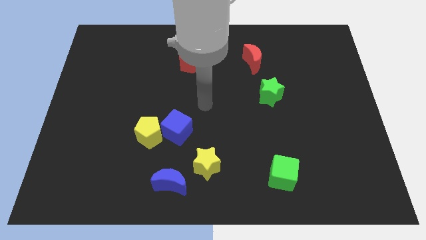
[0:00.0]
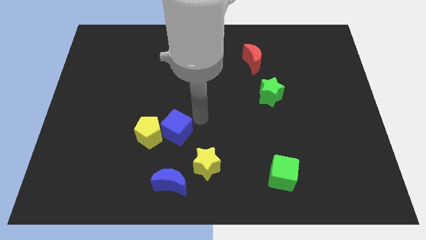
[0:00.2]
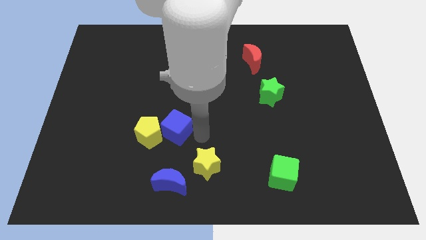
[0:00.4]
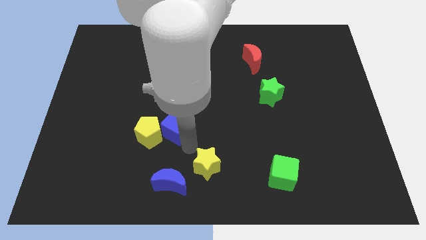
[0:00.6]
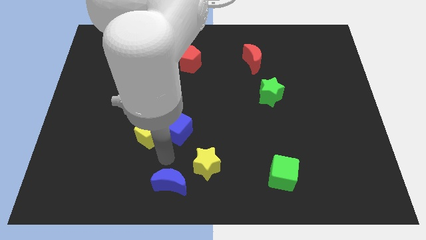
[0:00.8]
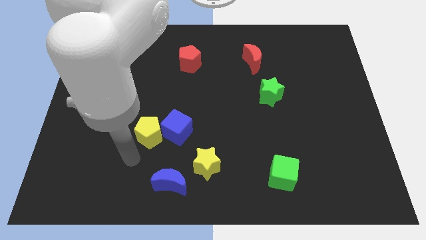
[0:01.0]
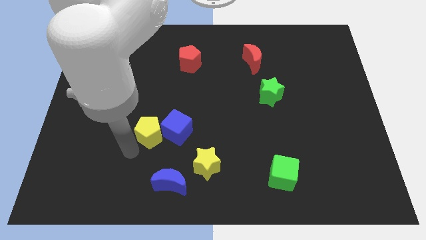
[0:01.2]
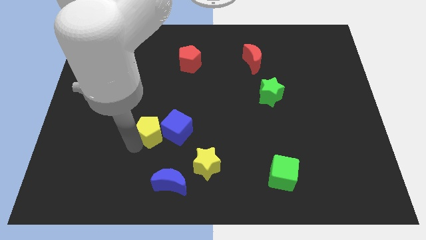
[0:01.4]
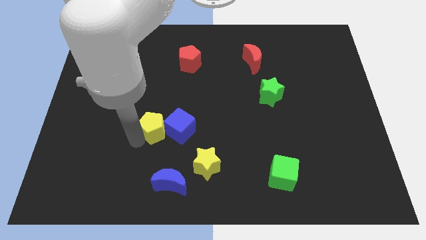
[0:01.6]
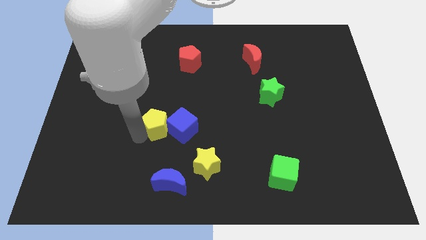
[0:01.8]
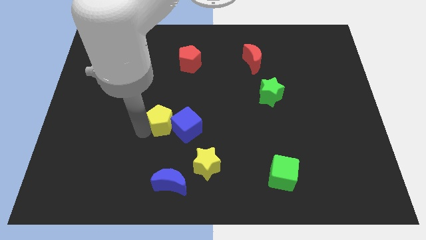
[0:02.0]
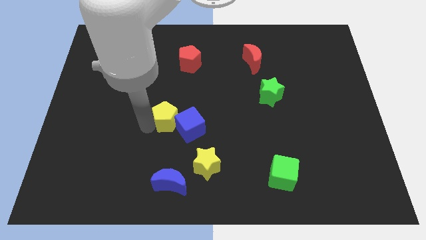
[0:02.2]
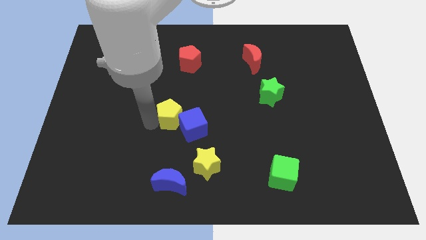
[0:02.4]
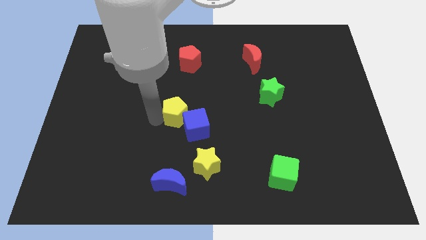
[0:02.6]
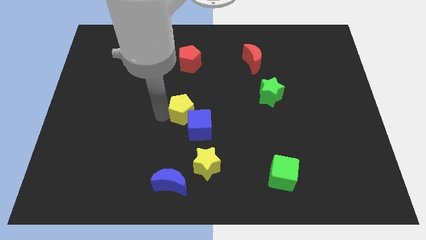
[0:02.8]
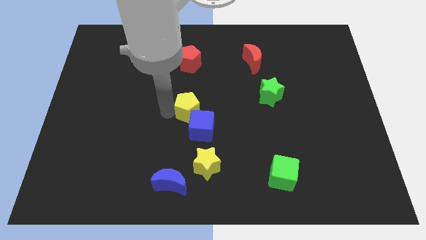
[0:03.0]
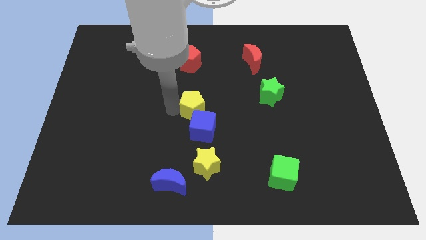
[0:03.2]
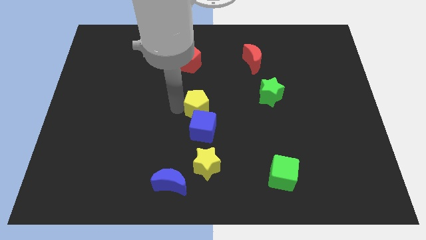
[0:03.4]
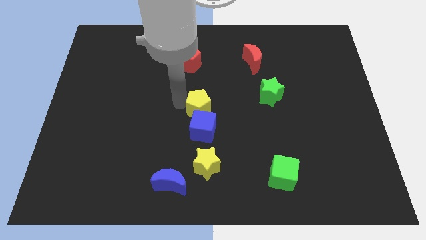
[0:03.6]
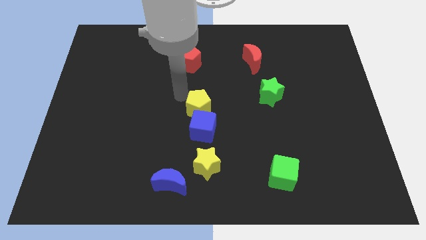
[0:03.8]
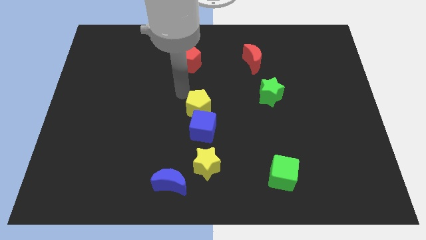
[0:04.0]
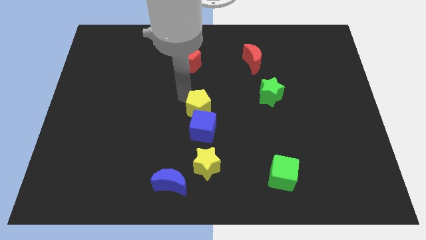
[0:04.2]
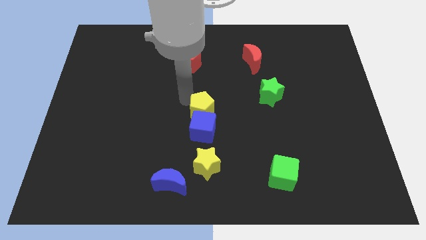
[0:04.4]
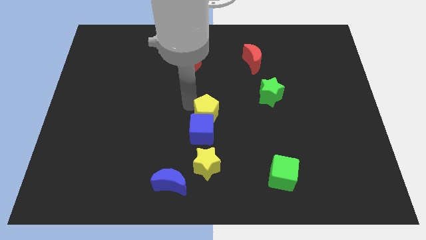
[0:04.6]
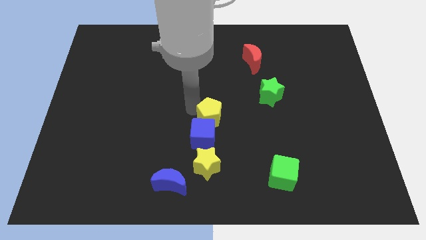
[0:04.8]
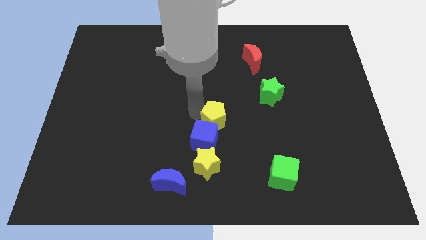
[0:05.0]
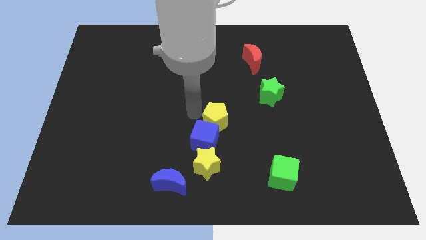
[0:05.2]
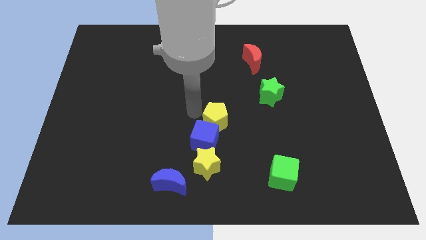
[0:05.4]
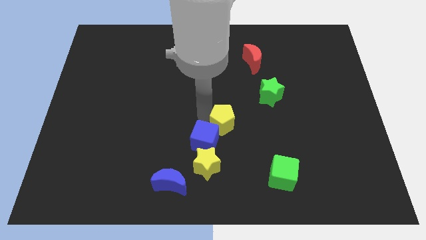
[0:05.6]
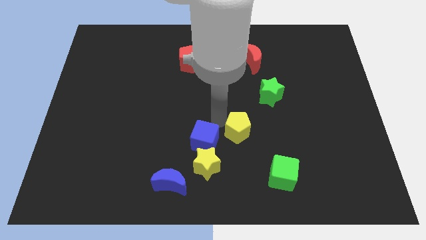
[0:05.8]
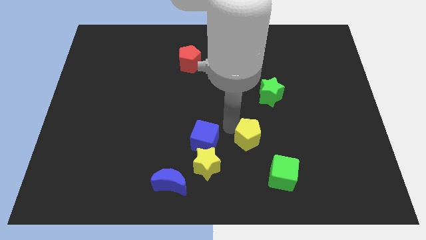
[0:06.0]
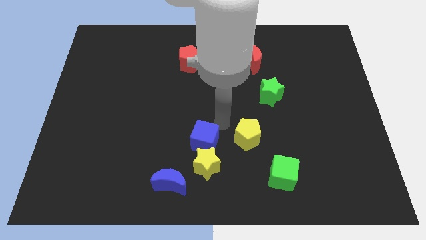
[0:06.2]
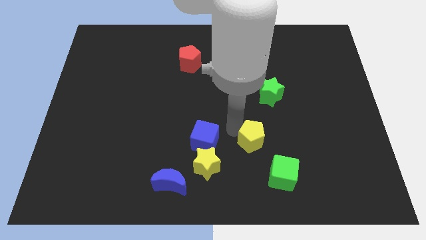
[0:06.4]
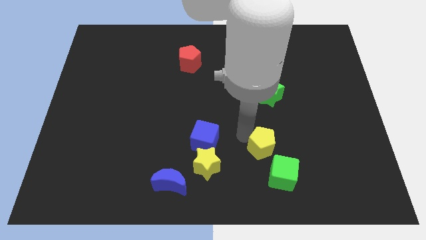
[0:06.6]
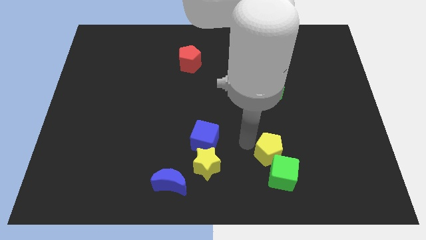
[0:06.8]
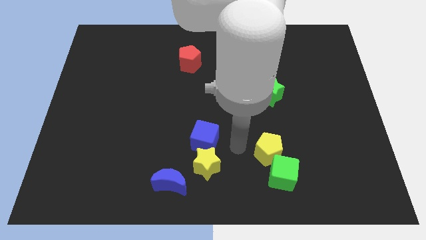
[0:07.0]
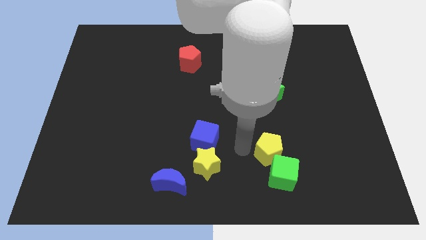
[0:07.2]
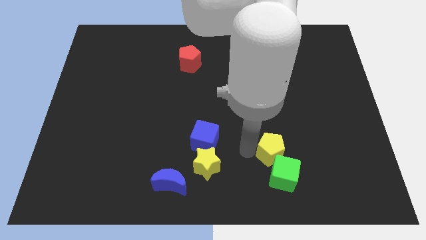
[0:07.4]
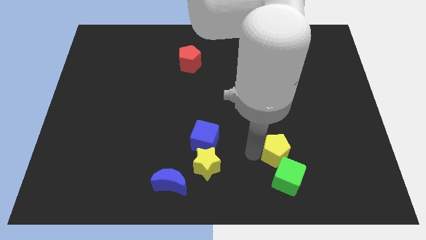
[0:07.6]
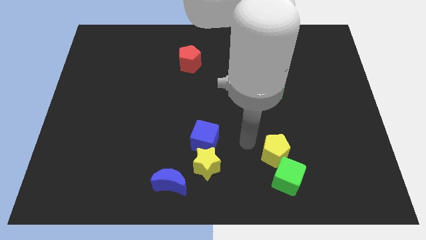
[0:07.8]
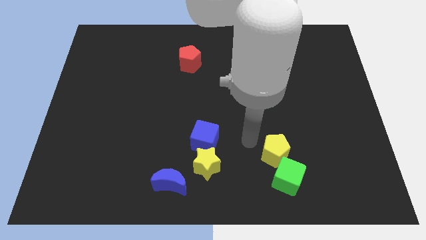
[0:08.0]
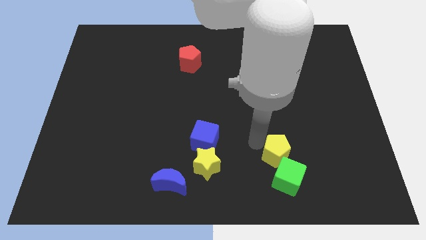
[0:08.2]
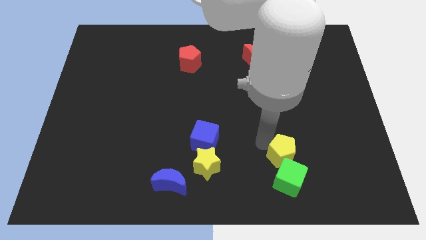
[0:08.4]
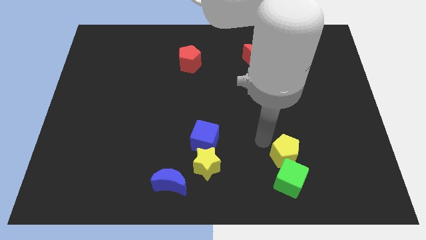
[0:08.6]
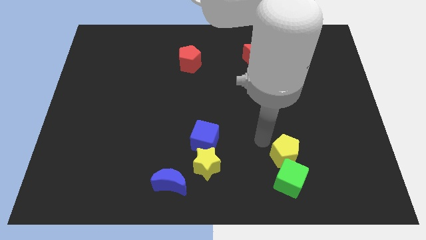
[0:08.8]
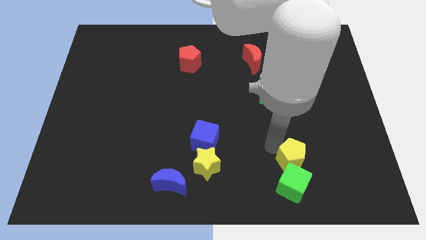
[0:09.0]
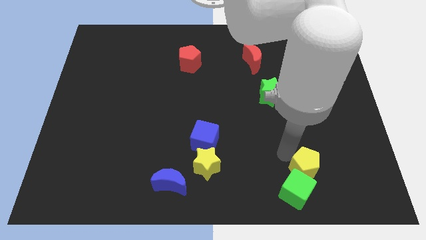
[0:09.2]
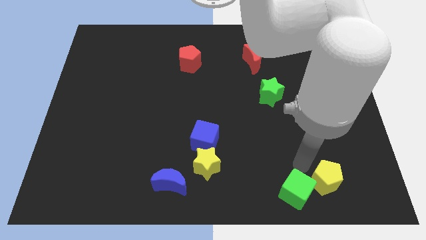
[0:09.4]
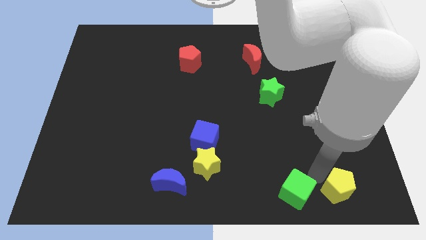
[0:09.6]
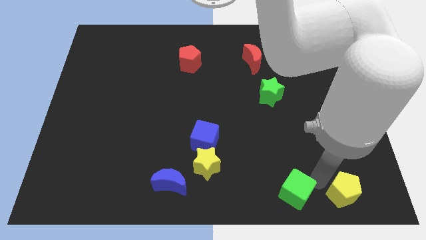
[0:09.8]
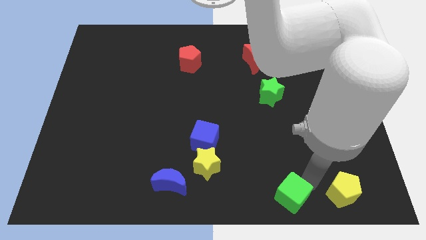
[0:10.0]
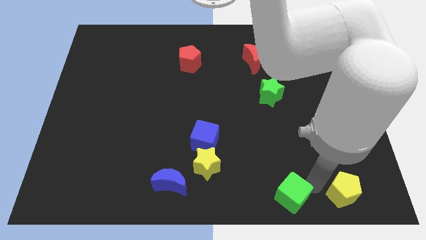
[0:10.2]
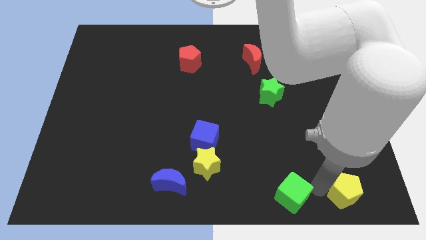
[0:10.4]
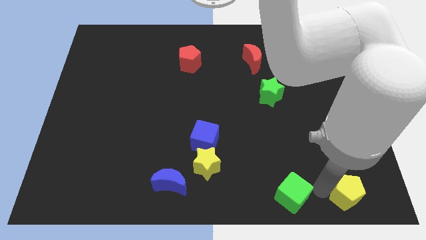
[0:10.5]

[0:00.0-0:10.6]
put the yellow pentagon to the lower right corner

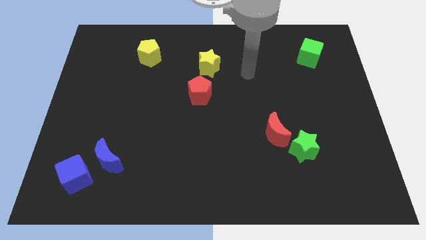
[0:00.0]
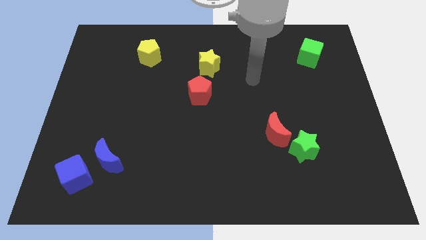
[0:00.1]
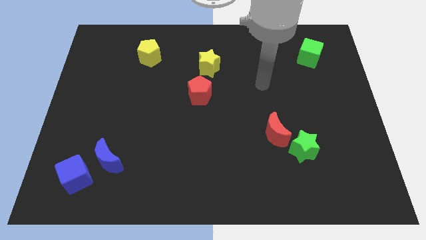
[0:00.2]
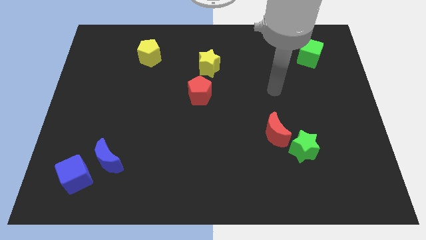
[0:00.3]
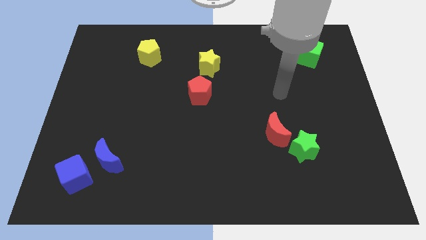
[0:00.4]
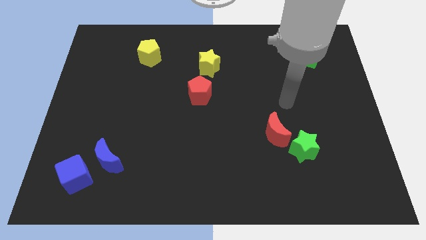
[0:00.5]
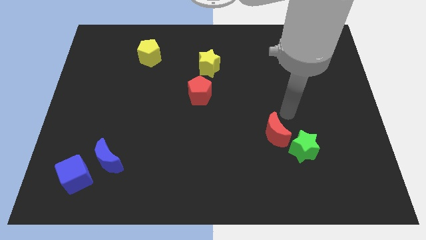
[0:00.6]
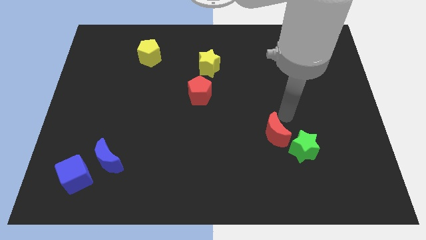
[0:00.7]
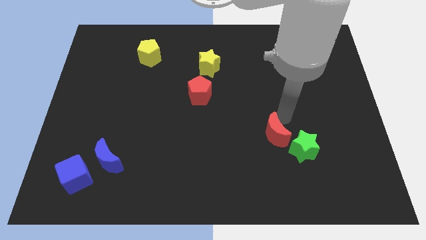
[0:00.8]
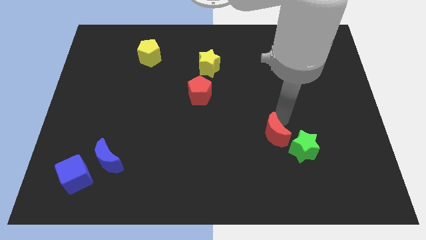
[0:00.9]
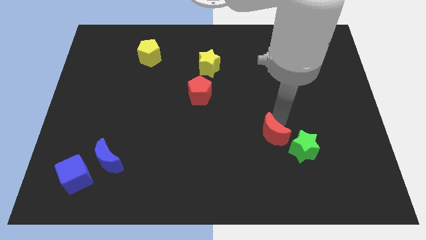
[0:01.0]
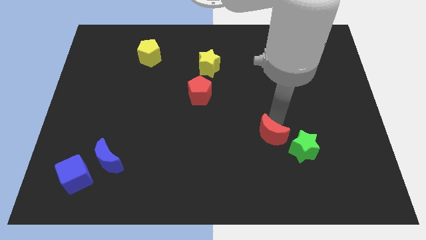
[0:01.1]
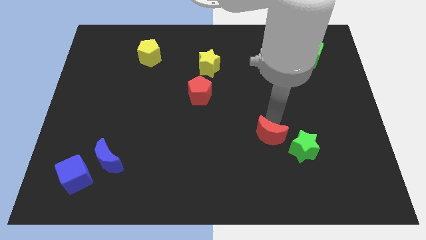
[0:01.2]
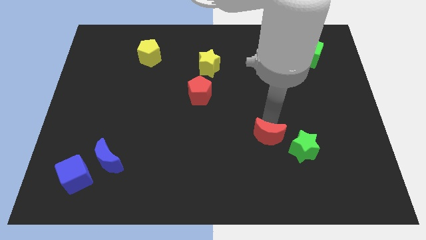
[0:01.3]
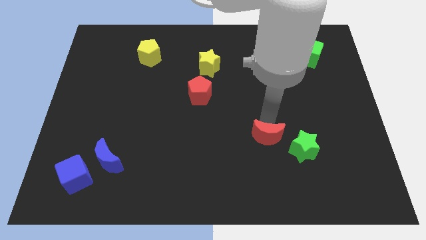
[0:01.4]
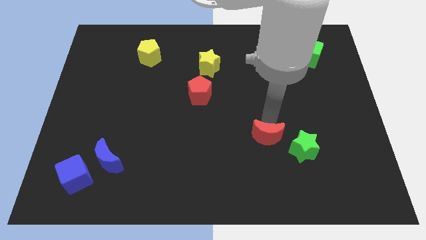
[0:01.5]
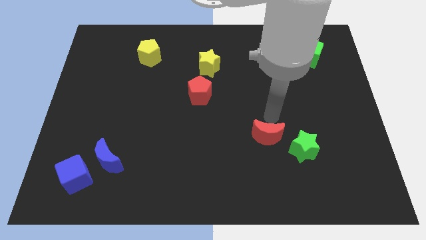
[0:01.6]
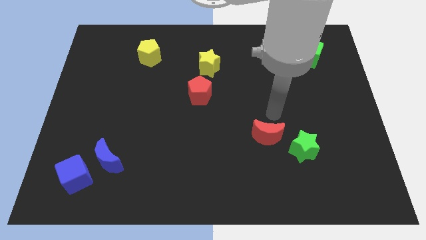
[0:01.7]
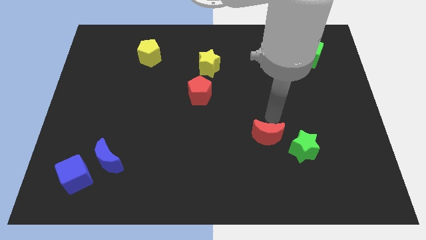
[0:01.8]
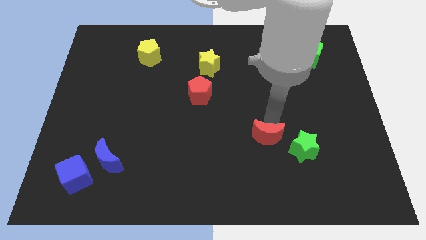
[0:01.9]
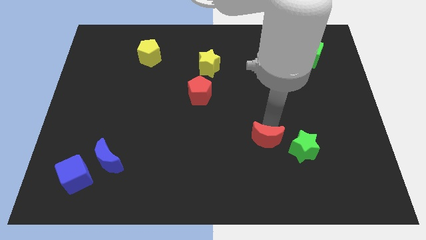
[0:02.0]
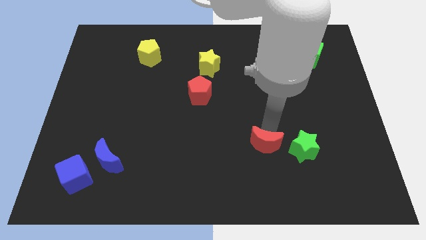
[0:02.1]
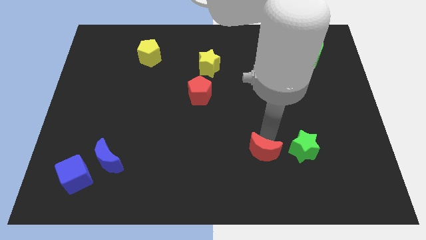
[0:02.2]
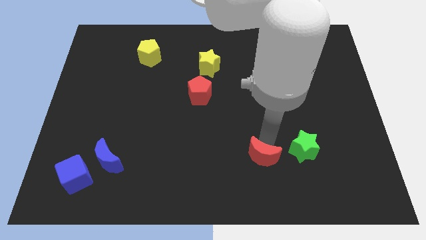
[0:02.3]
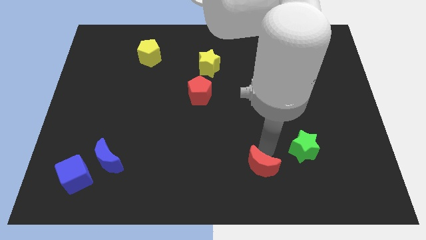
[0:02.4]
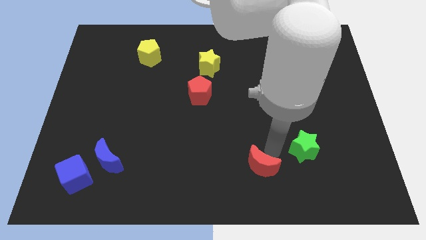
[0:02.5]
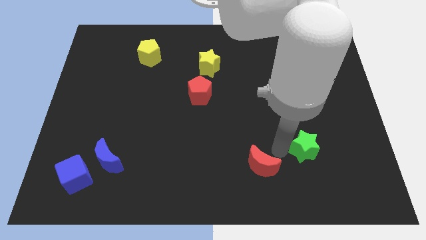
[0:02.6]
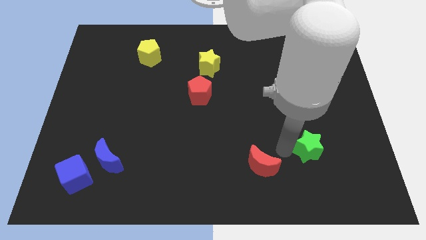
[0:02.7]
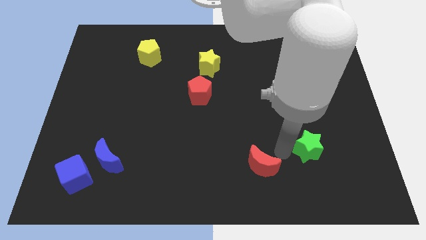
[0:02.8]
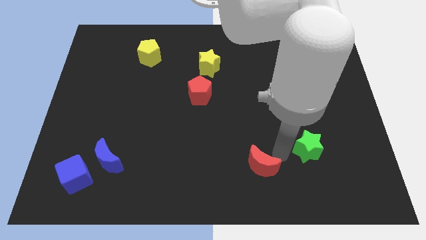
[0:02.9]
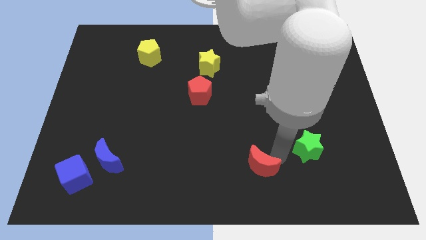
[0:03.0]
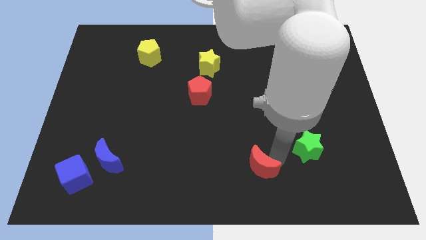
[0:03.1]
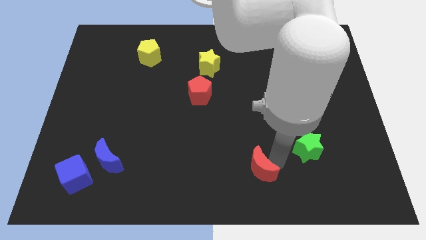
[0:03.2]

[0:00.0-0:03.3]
push the red moon to the bottom
